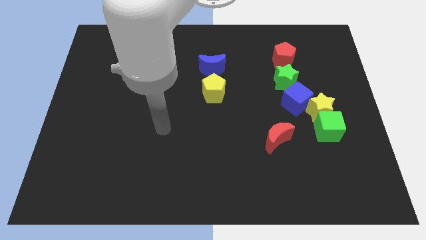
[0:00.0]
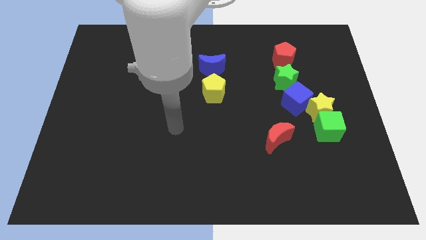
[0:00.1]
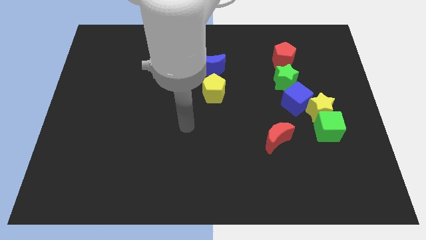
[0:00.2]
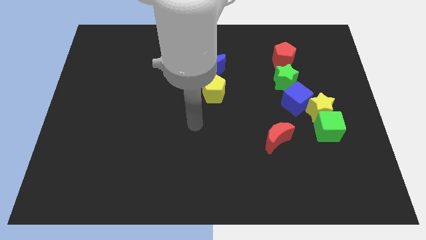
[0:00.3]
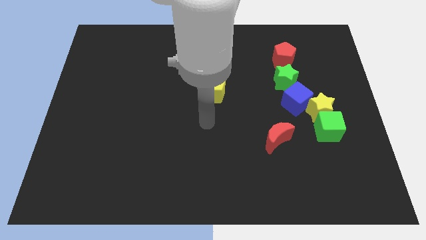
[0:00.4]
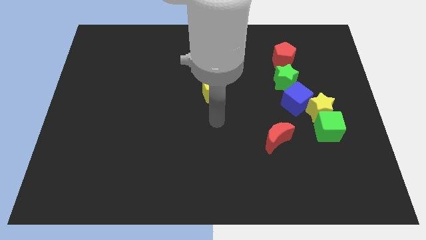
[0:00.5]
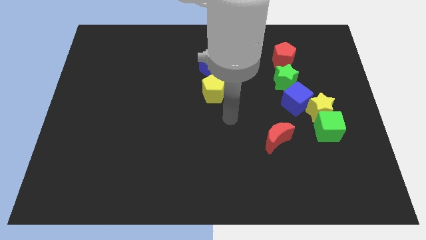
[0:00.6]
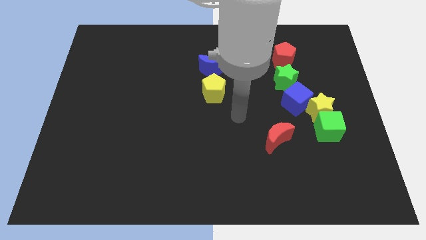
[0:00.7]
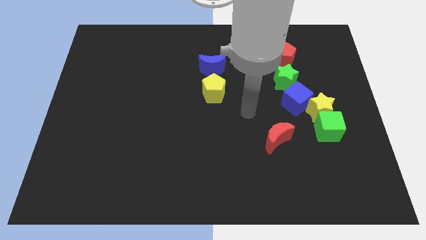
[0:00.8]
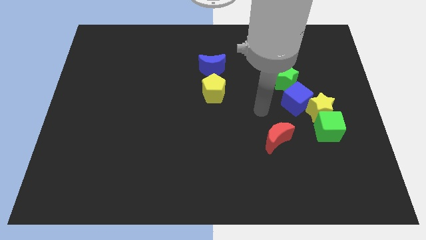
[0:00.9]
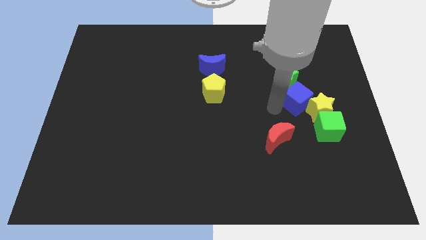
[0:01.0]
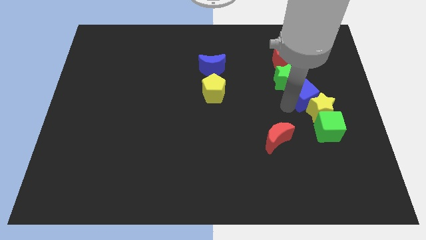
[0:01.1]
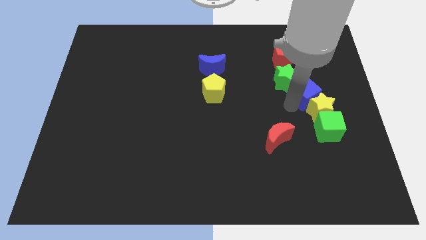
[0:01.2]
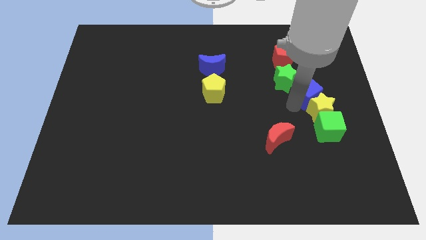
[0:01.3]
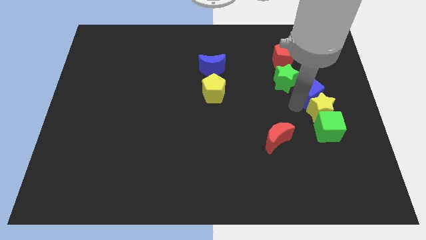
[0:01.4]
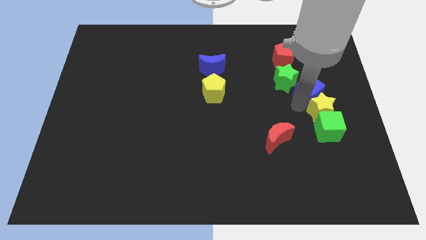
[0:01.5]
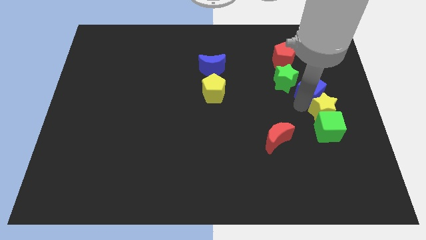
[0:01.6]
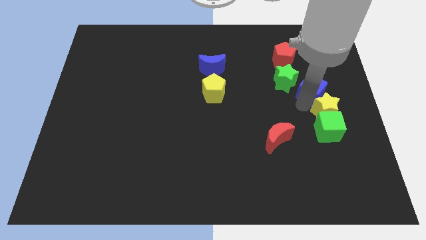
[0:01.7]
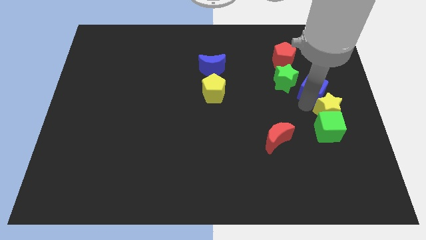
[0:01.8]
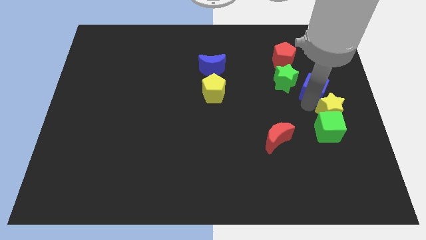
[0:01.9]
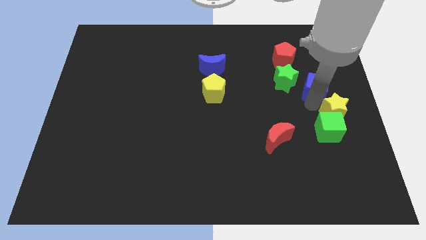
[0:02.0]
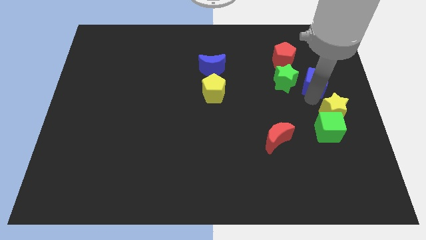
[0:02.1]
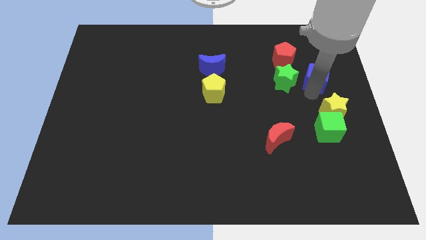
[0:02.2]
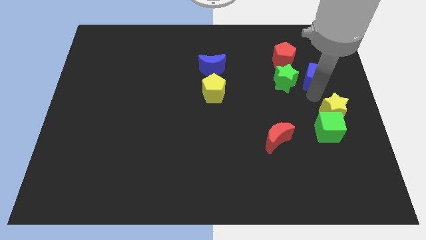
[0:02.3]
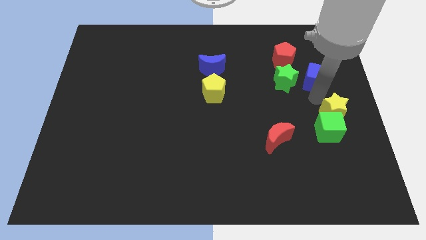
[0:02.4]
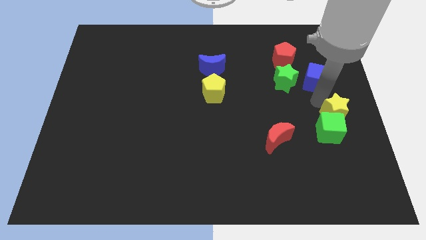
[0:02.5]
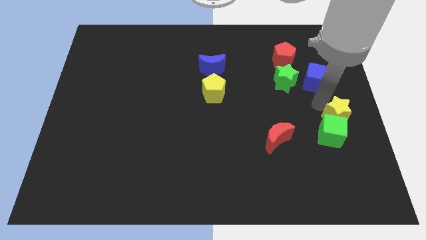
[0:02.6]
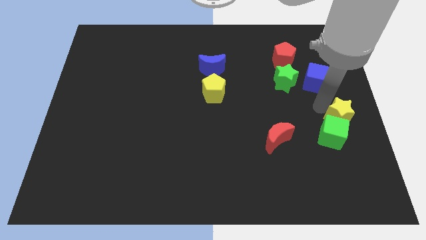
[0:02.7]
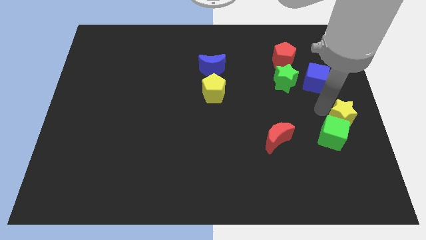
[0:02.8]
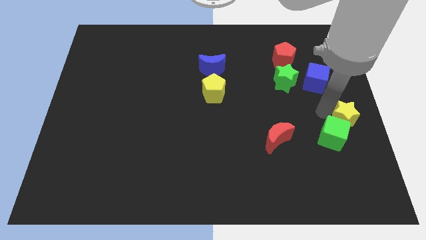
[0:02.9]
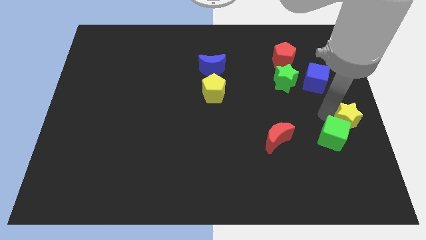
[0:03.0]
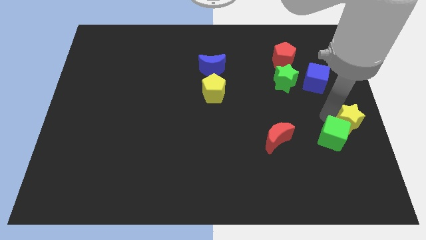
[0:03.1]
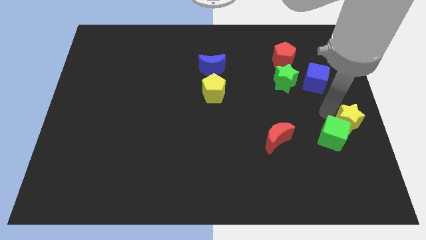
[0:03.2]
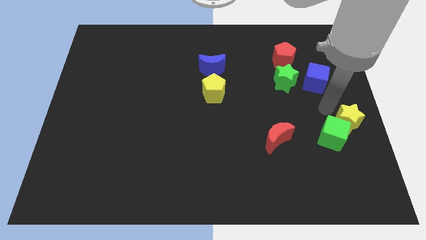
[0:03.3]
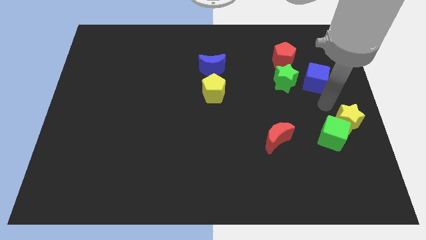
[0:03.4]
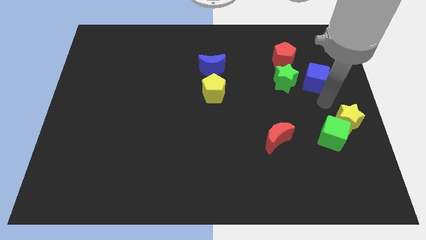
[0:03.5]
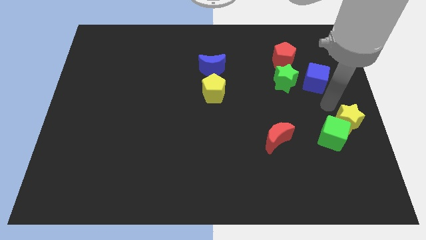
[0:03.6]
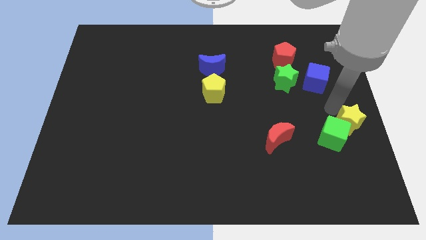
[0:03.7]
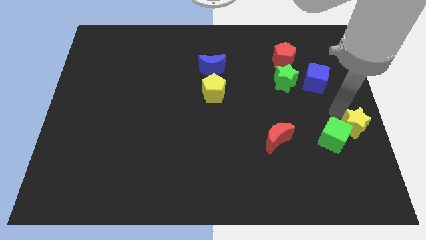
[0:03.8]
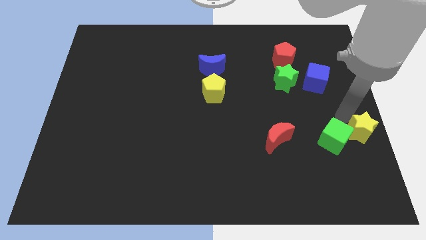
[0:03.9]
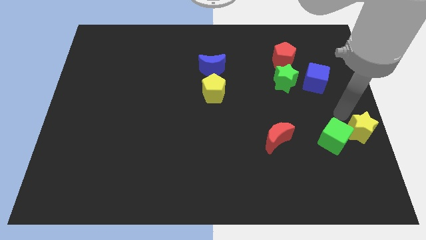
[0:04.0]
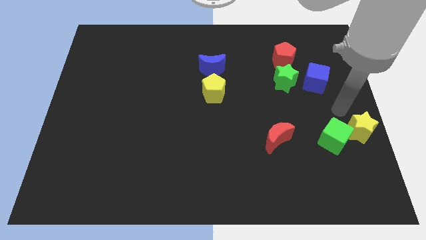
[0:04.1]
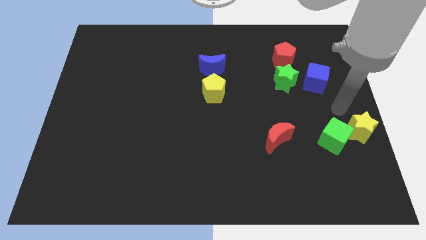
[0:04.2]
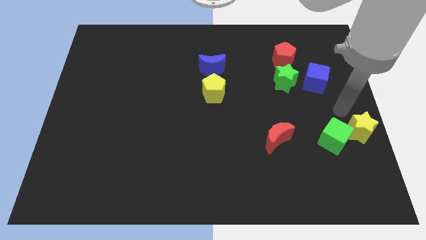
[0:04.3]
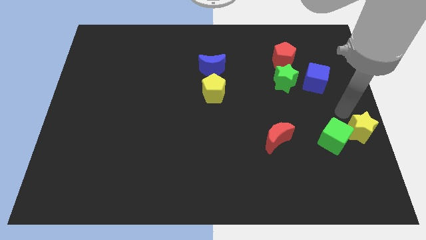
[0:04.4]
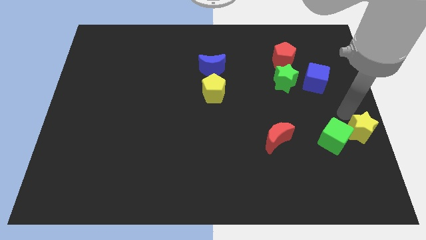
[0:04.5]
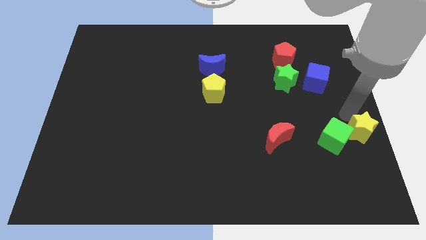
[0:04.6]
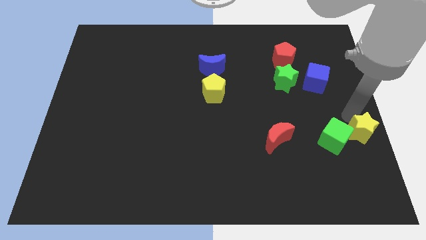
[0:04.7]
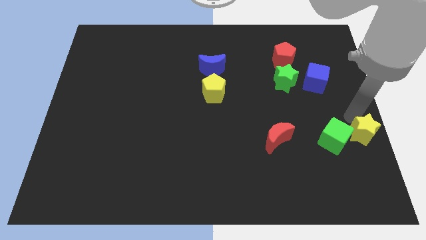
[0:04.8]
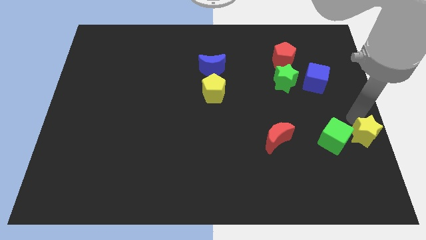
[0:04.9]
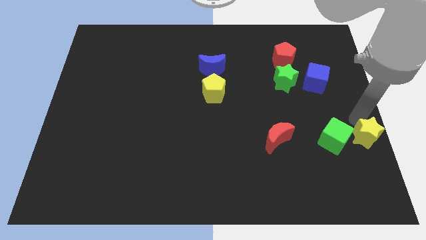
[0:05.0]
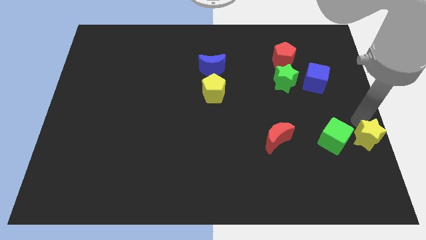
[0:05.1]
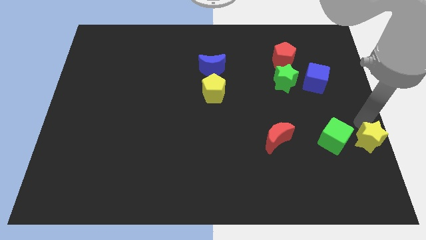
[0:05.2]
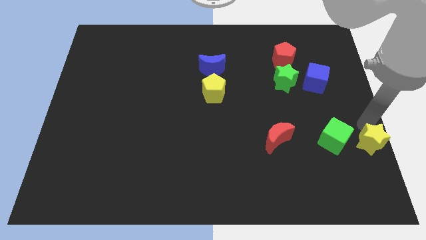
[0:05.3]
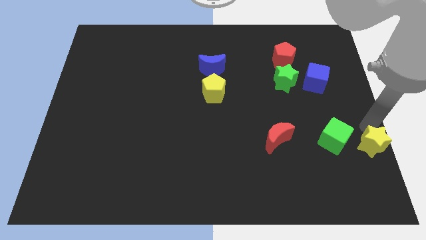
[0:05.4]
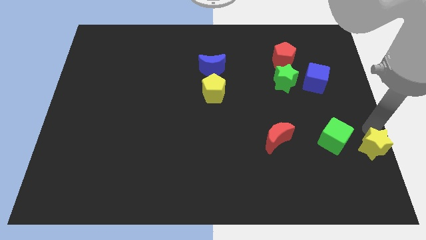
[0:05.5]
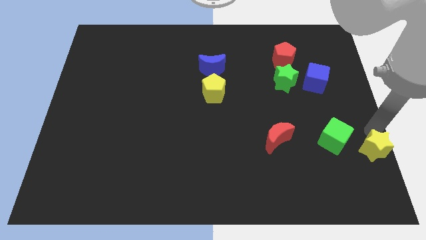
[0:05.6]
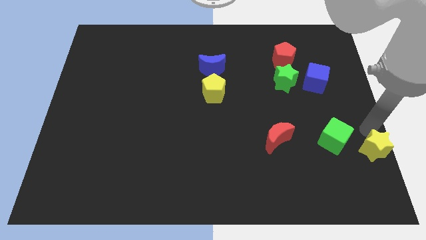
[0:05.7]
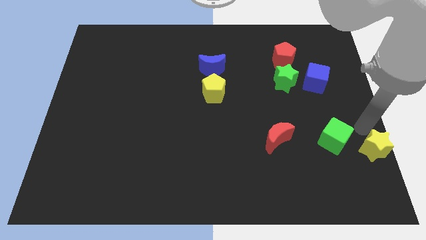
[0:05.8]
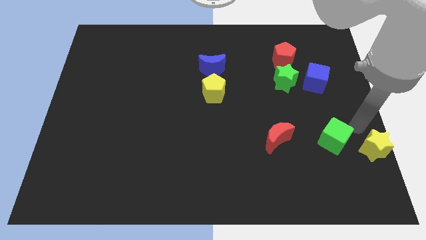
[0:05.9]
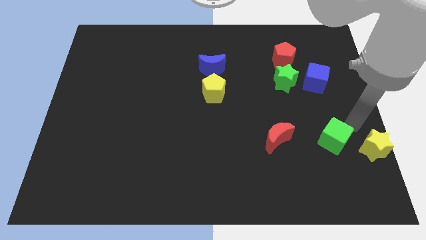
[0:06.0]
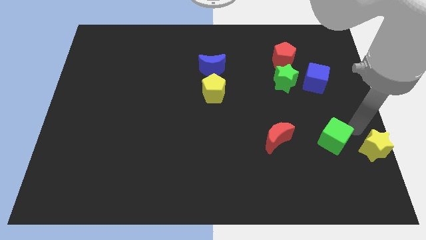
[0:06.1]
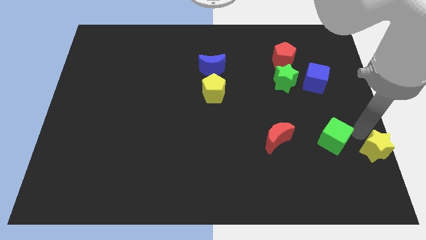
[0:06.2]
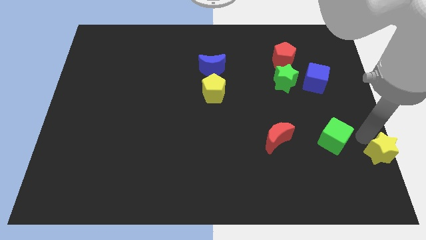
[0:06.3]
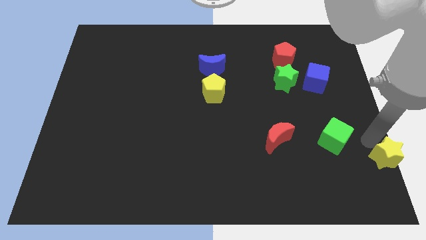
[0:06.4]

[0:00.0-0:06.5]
move the yellow star to the lower right corner

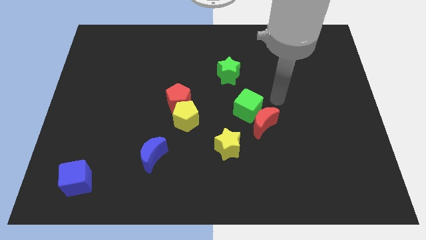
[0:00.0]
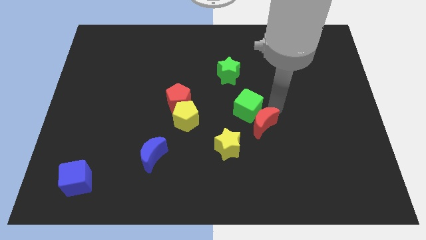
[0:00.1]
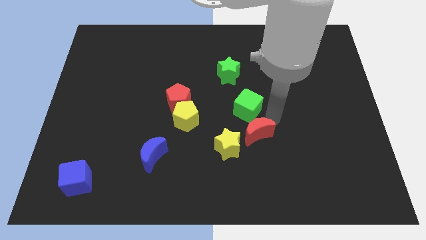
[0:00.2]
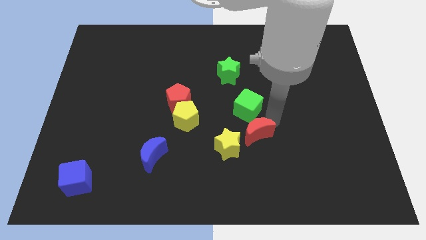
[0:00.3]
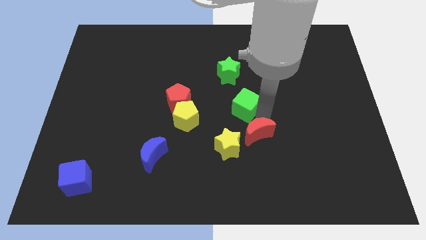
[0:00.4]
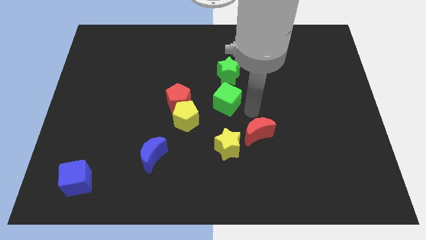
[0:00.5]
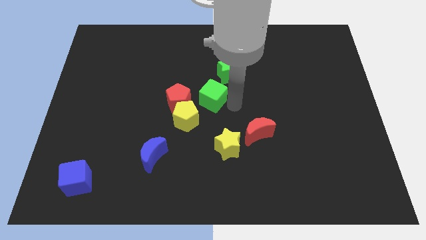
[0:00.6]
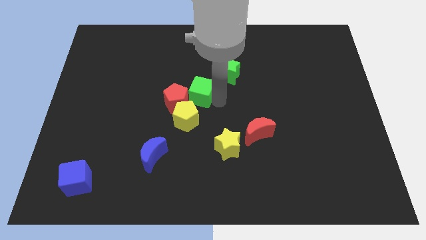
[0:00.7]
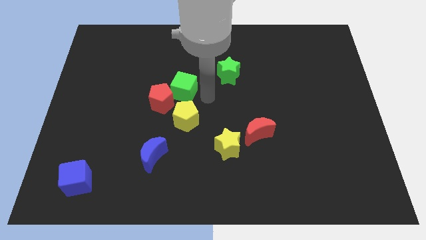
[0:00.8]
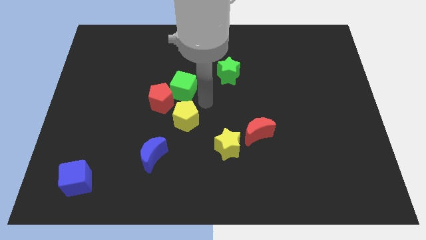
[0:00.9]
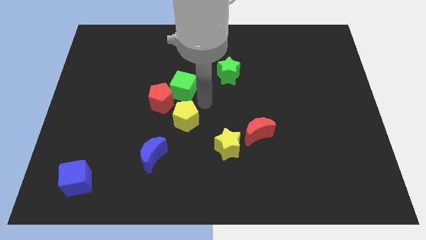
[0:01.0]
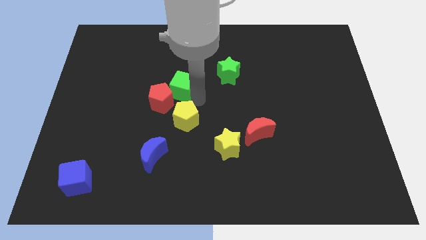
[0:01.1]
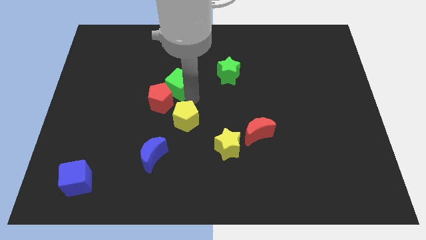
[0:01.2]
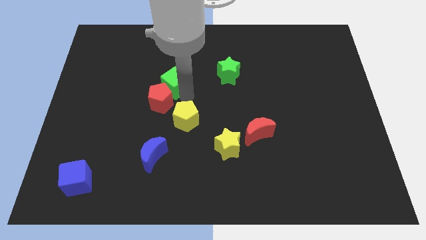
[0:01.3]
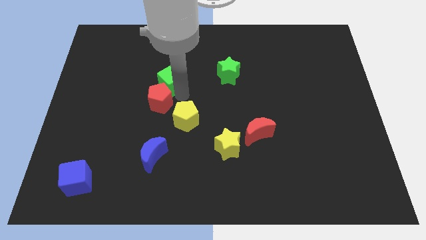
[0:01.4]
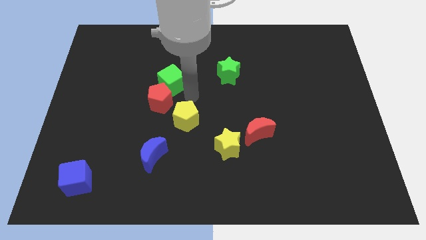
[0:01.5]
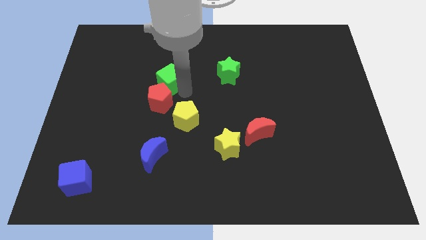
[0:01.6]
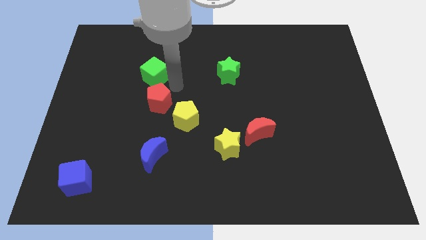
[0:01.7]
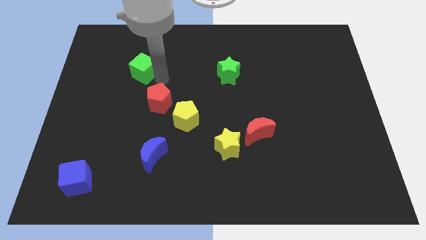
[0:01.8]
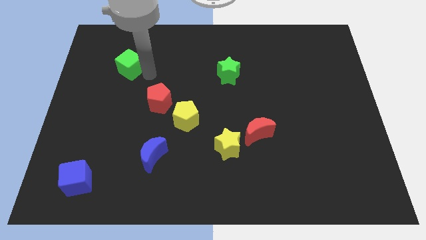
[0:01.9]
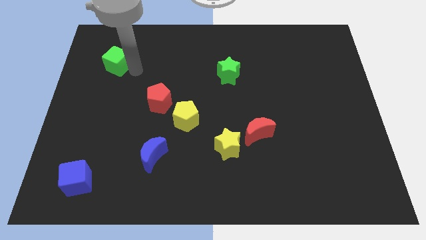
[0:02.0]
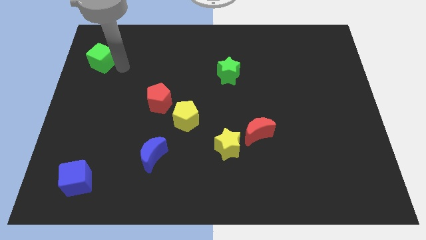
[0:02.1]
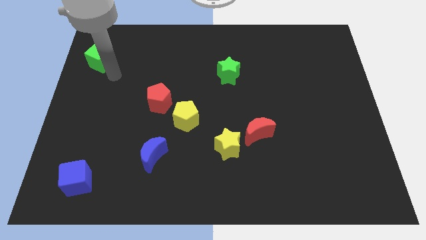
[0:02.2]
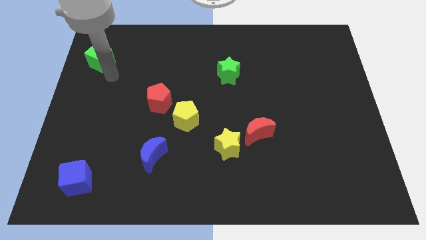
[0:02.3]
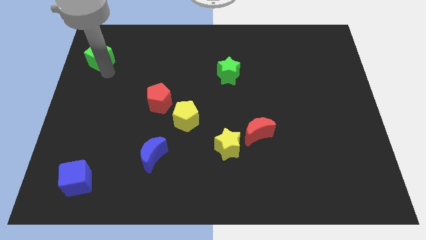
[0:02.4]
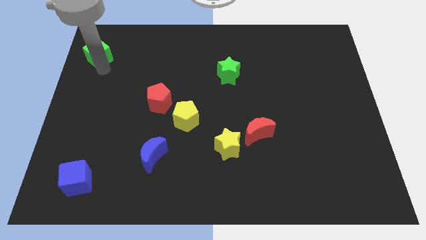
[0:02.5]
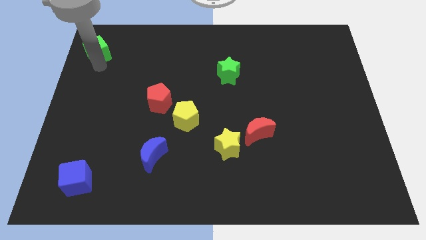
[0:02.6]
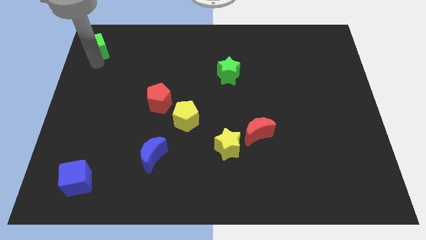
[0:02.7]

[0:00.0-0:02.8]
move the green cube to the top left
